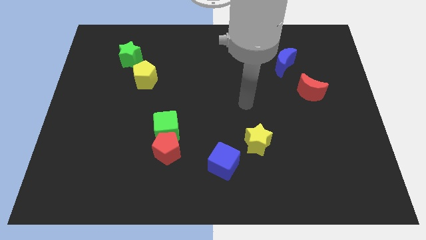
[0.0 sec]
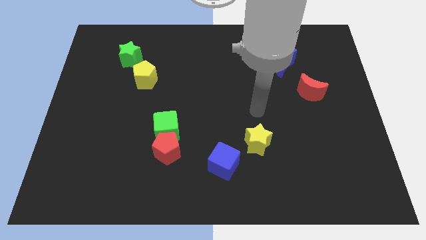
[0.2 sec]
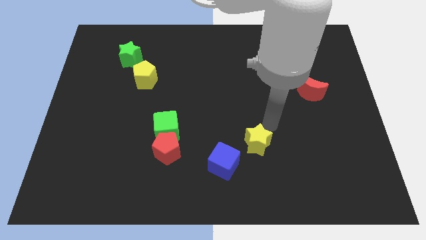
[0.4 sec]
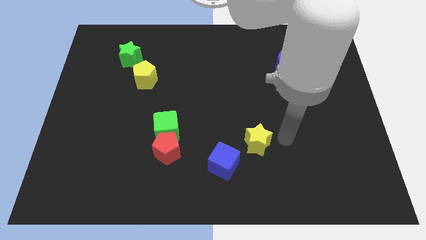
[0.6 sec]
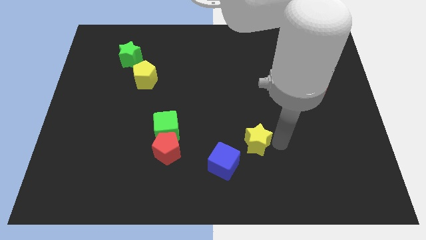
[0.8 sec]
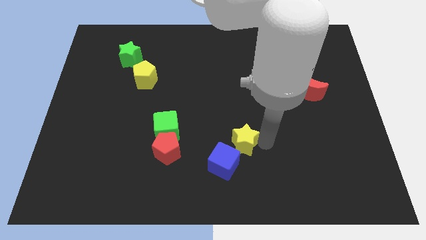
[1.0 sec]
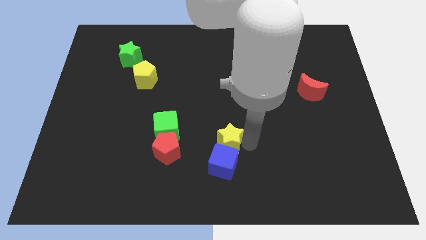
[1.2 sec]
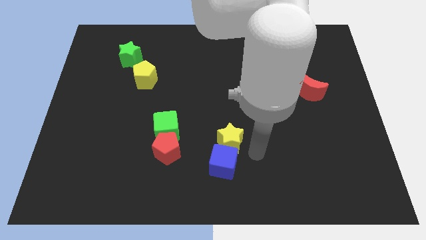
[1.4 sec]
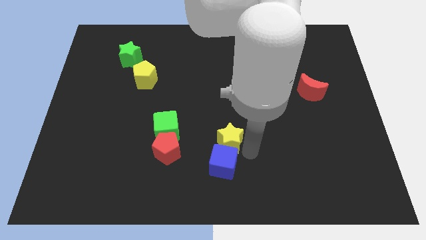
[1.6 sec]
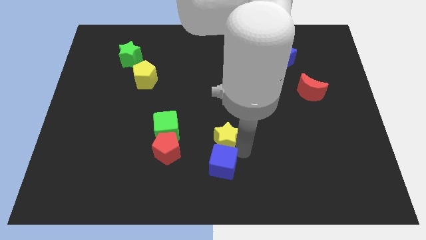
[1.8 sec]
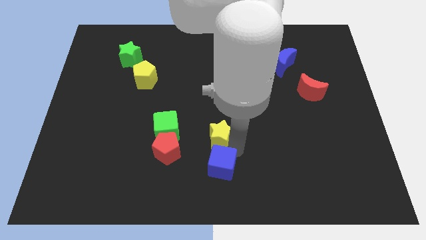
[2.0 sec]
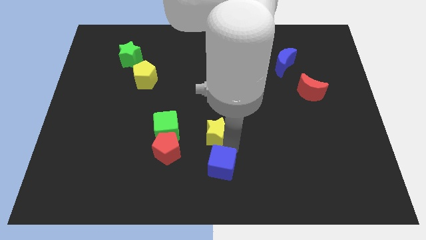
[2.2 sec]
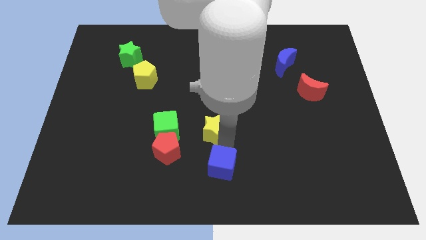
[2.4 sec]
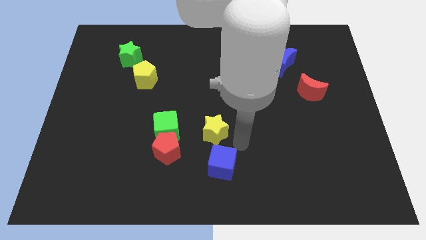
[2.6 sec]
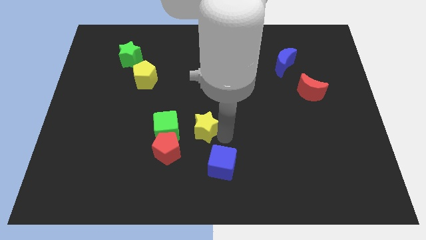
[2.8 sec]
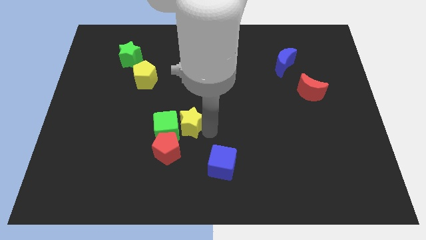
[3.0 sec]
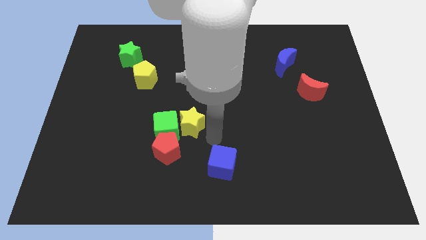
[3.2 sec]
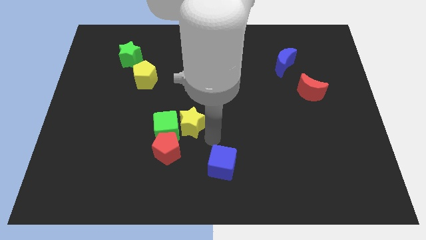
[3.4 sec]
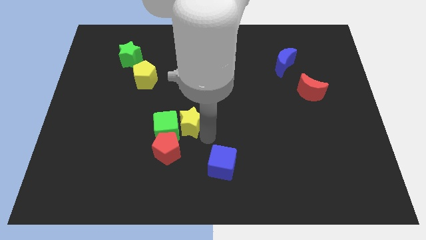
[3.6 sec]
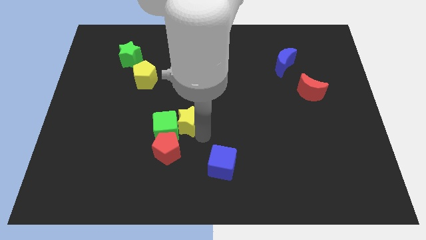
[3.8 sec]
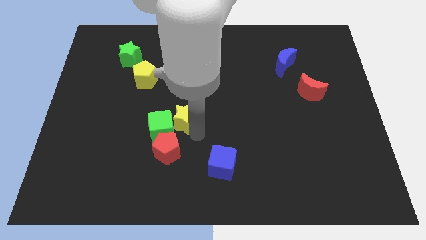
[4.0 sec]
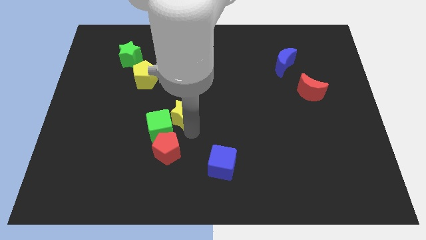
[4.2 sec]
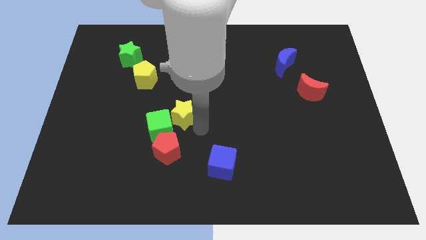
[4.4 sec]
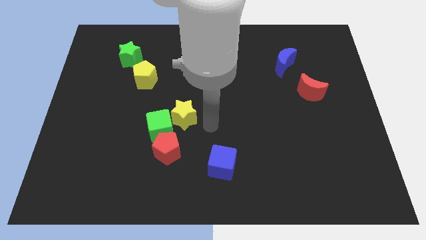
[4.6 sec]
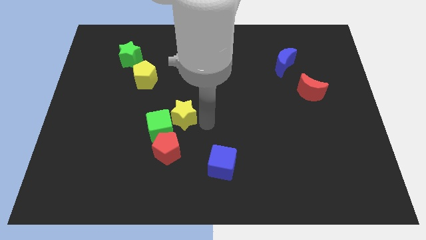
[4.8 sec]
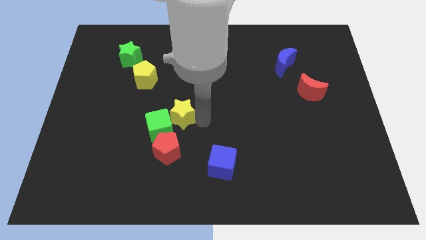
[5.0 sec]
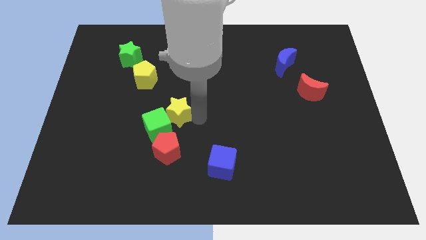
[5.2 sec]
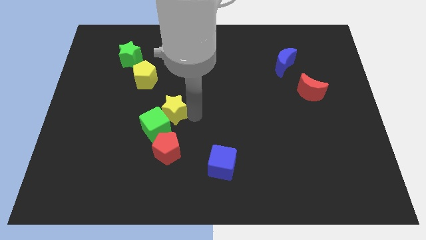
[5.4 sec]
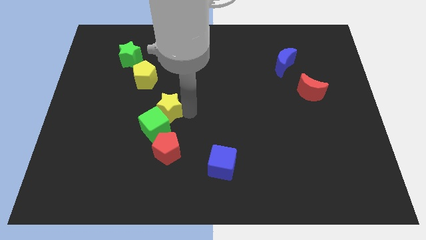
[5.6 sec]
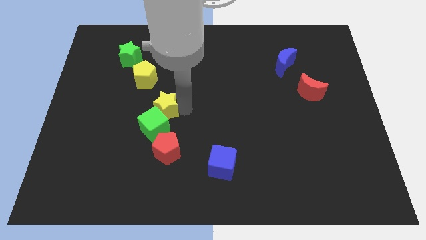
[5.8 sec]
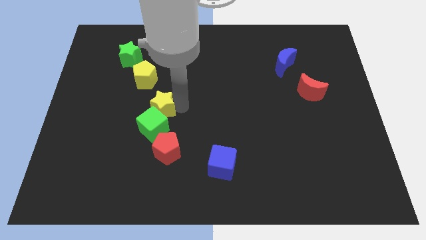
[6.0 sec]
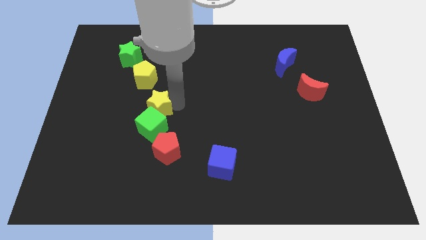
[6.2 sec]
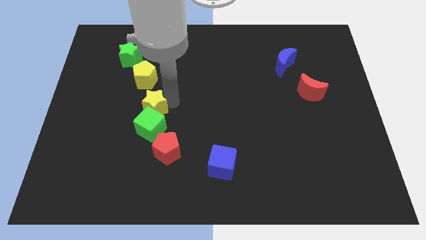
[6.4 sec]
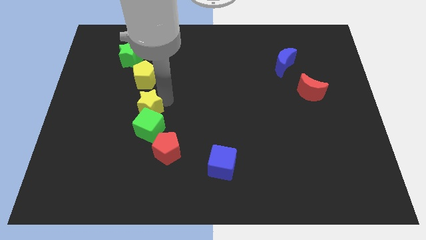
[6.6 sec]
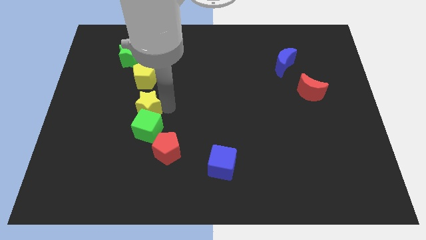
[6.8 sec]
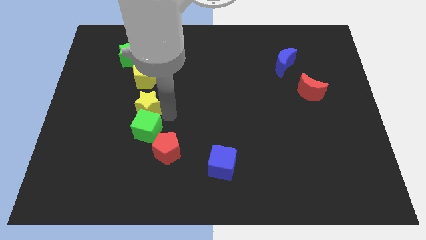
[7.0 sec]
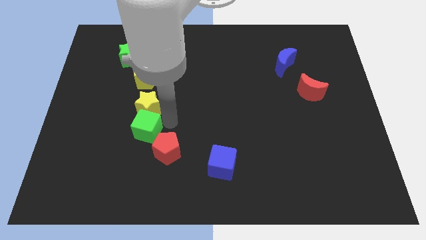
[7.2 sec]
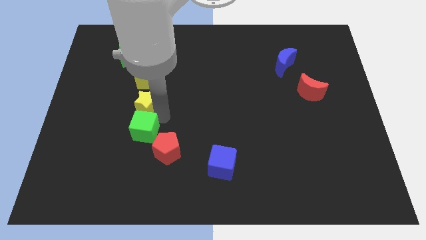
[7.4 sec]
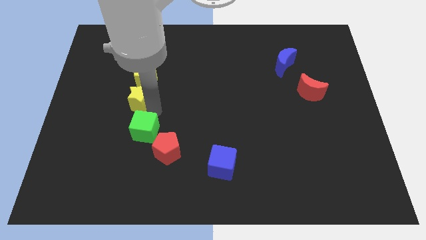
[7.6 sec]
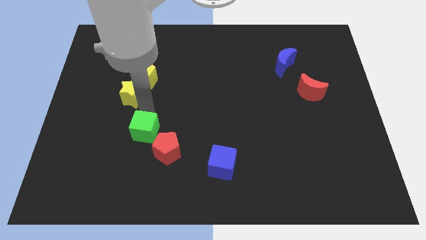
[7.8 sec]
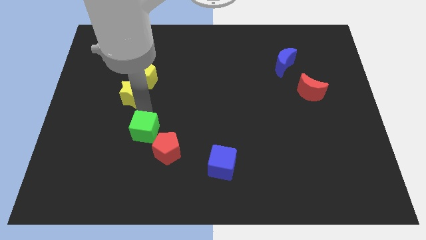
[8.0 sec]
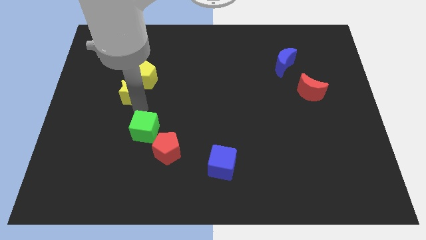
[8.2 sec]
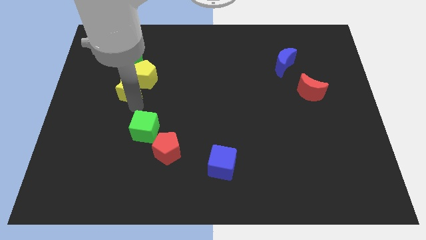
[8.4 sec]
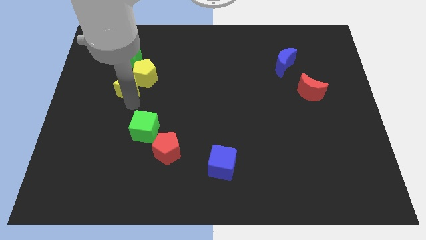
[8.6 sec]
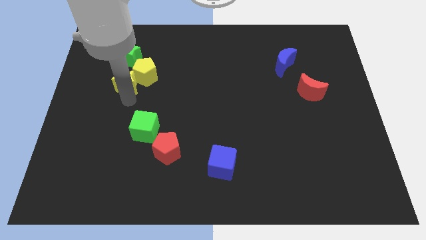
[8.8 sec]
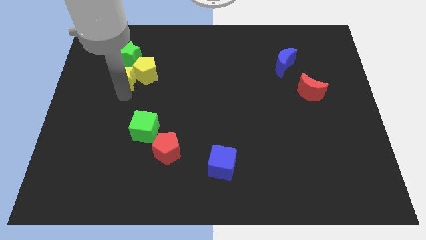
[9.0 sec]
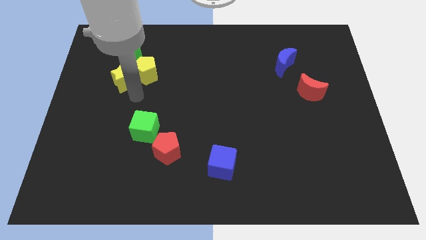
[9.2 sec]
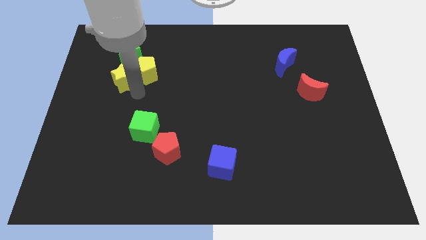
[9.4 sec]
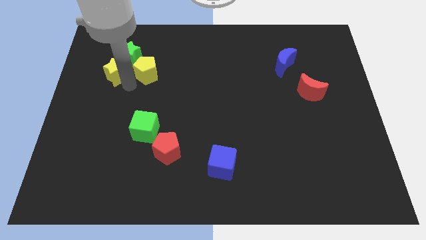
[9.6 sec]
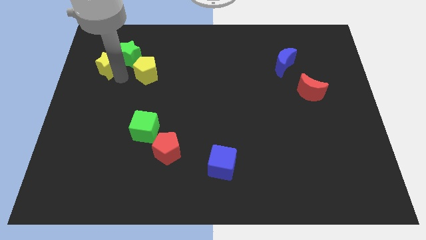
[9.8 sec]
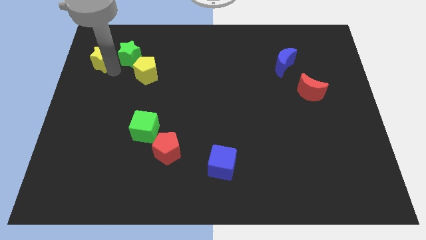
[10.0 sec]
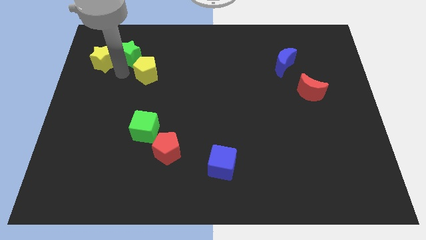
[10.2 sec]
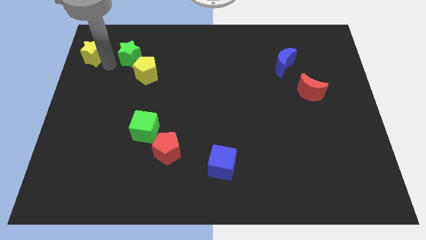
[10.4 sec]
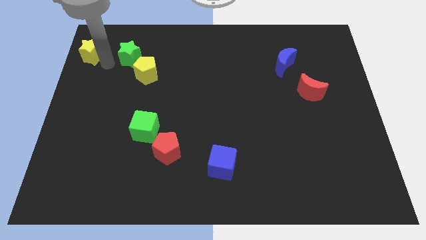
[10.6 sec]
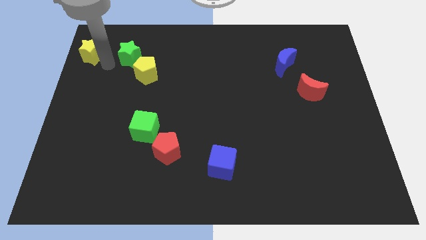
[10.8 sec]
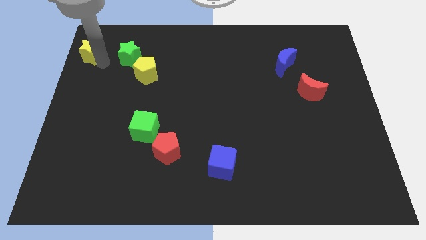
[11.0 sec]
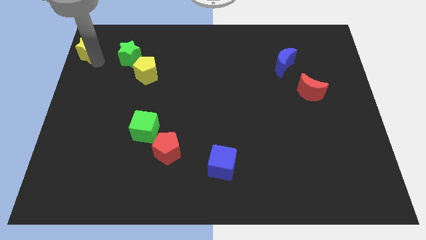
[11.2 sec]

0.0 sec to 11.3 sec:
put the yellow star to the top left corner

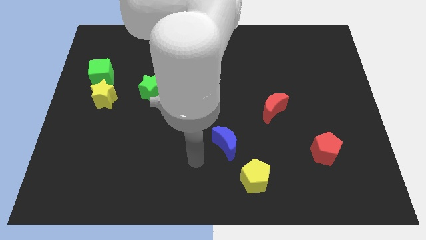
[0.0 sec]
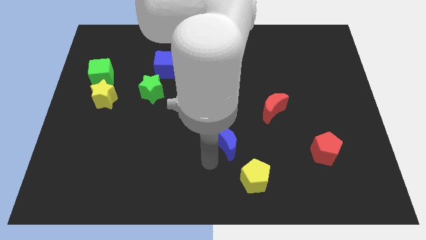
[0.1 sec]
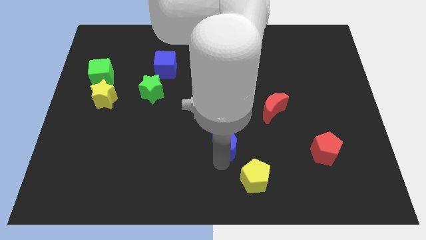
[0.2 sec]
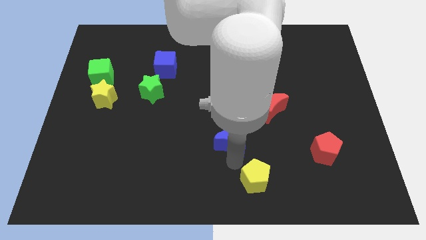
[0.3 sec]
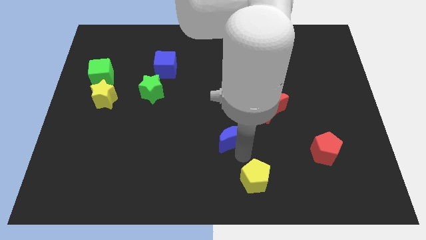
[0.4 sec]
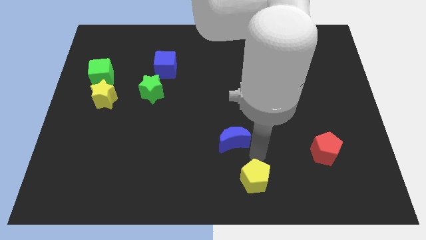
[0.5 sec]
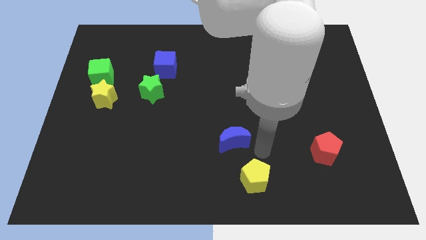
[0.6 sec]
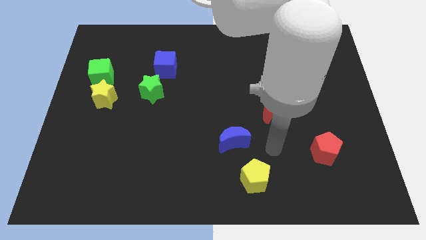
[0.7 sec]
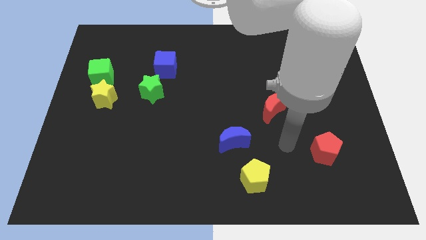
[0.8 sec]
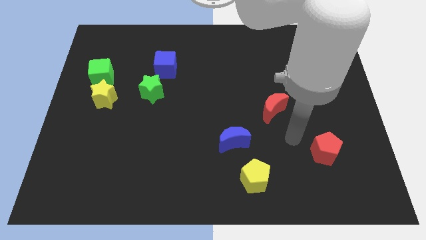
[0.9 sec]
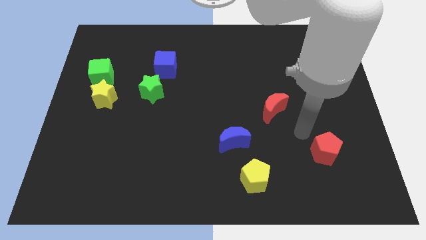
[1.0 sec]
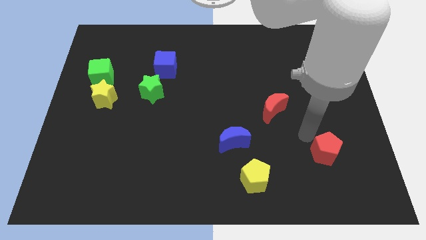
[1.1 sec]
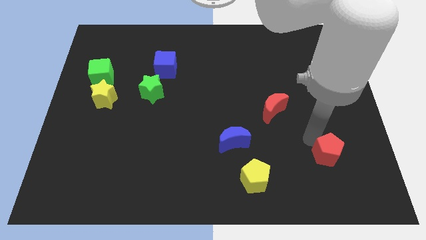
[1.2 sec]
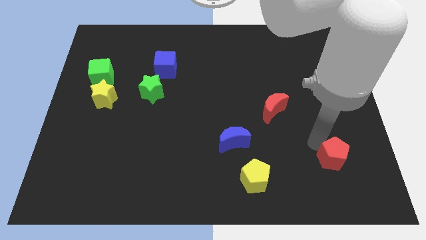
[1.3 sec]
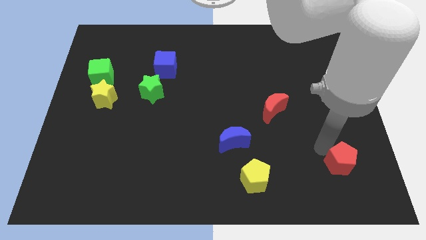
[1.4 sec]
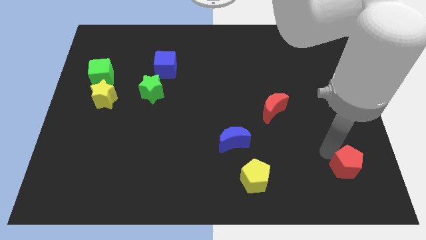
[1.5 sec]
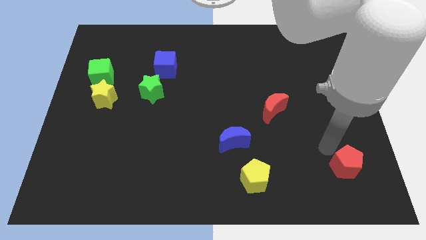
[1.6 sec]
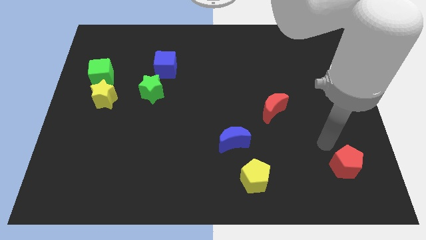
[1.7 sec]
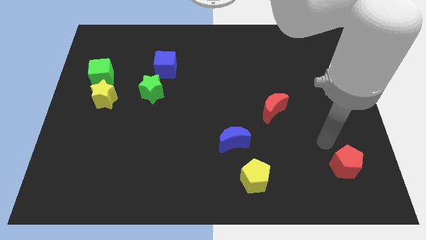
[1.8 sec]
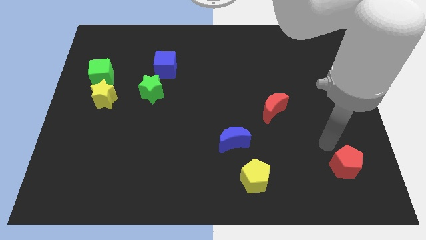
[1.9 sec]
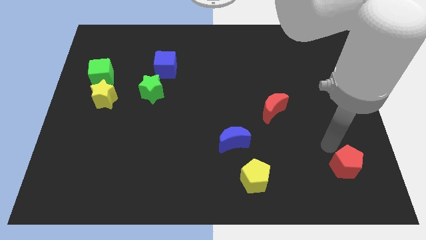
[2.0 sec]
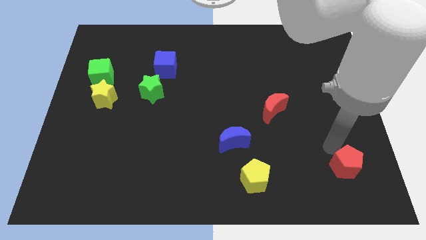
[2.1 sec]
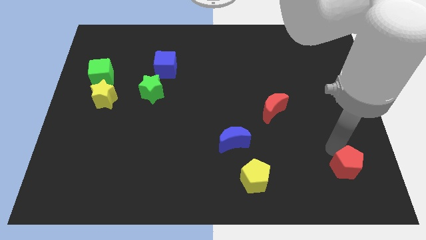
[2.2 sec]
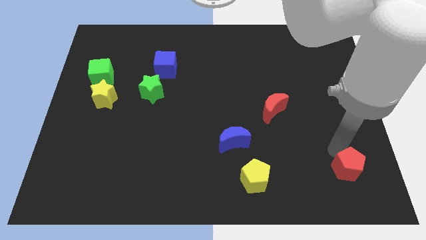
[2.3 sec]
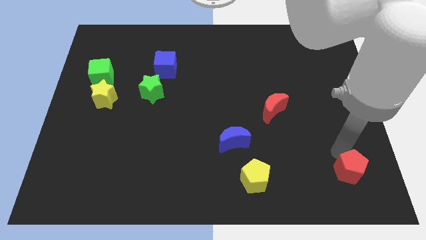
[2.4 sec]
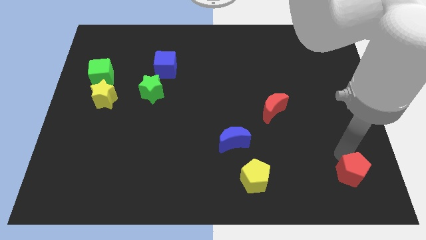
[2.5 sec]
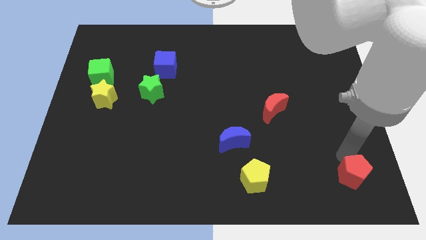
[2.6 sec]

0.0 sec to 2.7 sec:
move the red pentagon to the bottom right of the board
